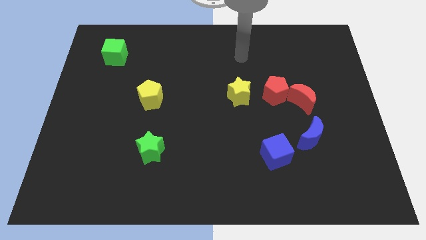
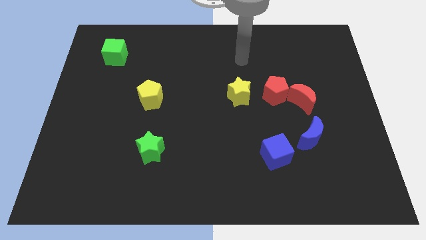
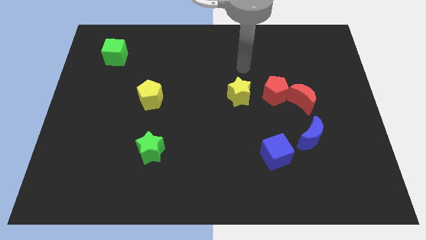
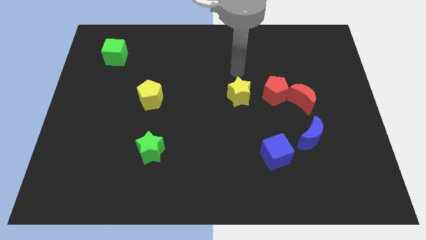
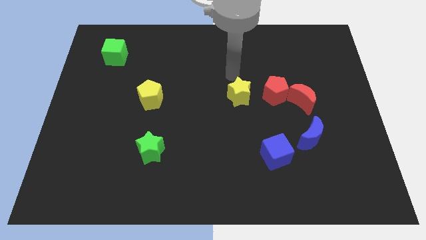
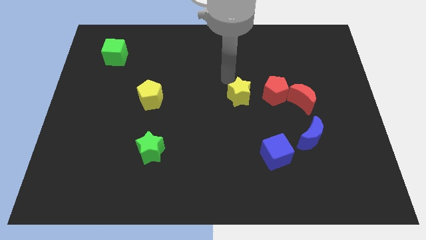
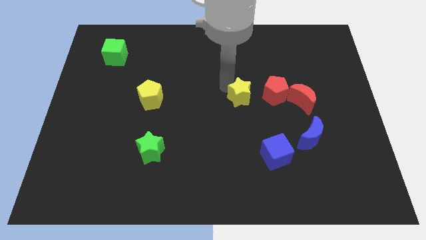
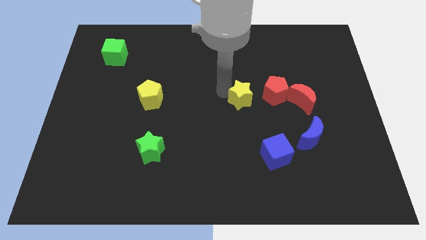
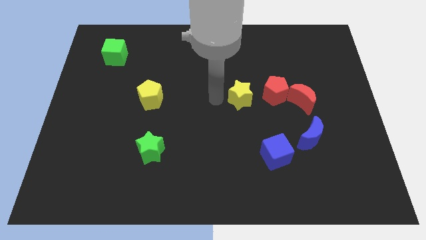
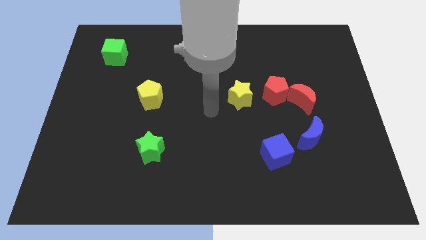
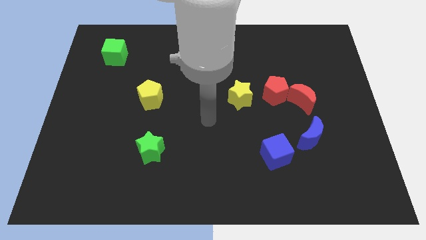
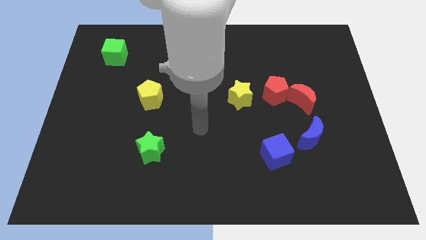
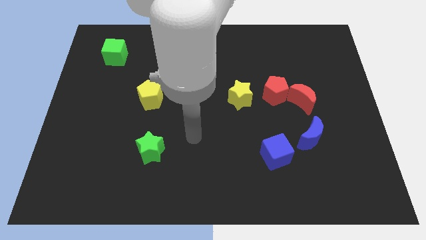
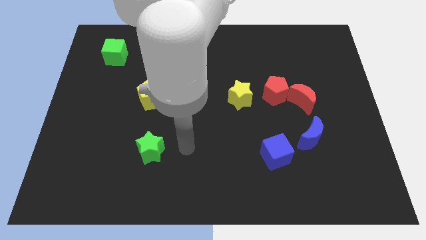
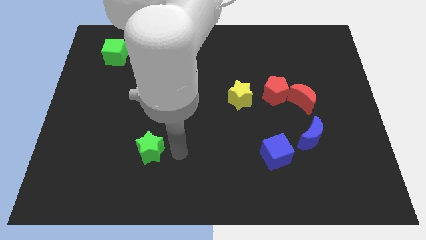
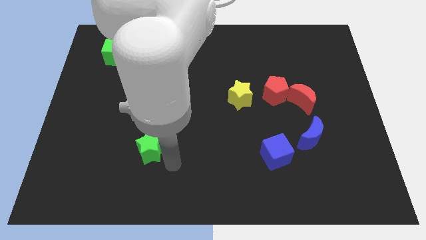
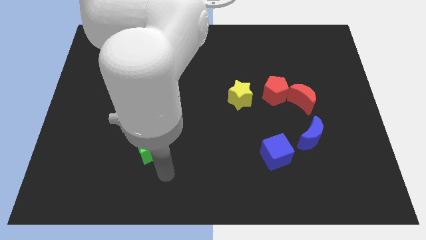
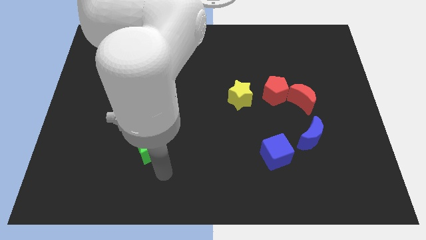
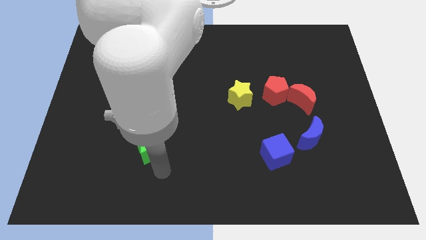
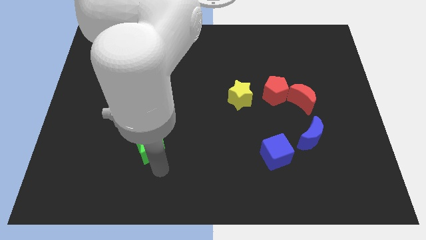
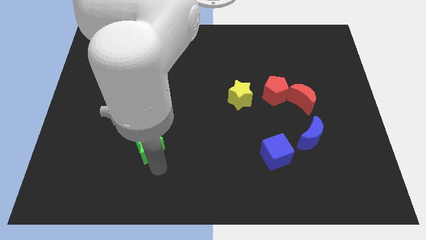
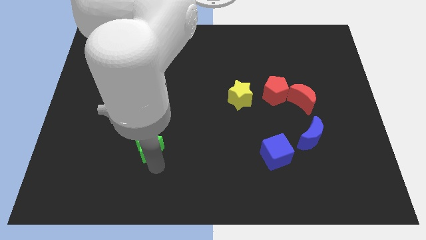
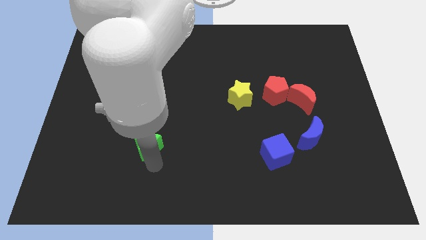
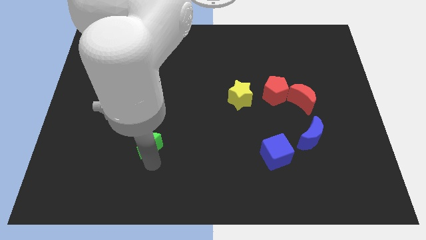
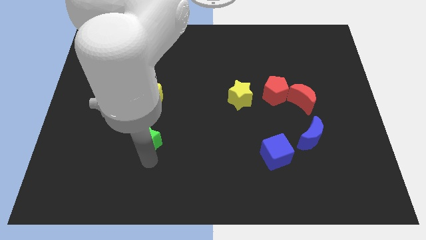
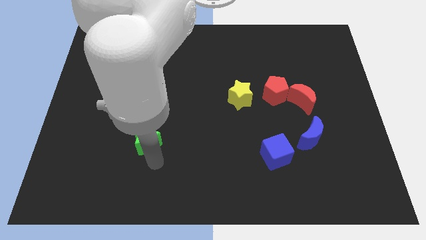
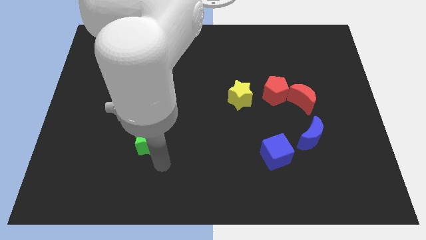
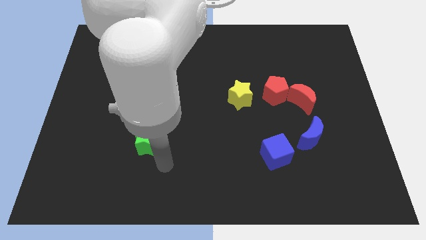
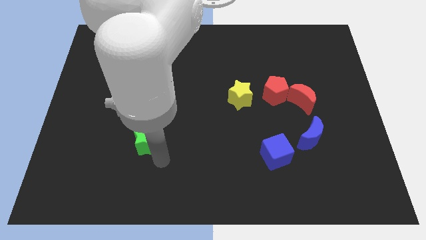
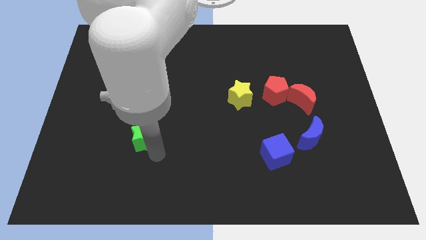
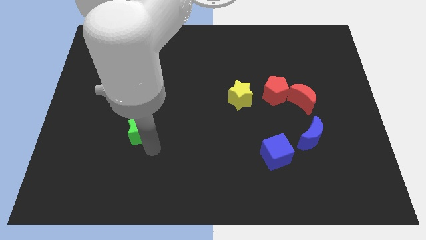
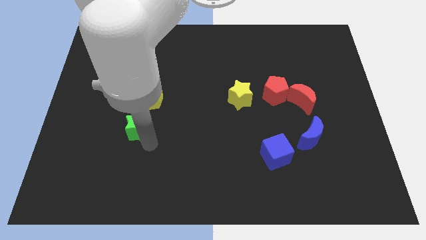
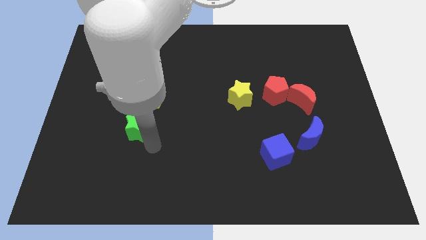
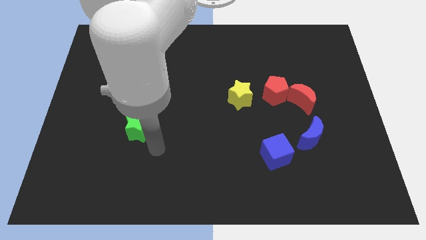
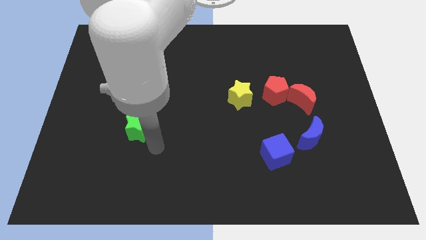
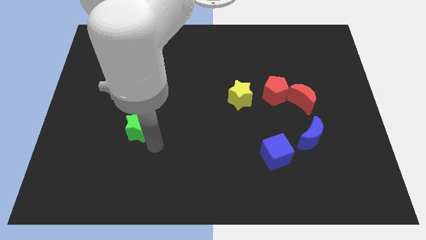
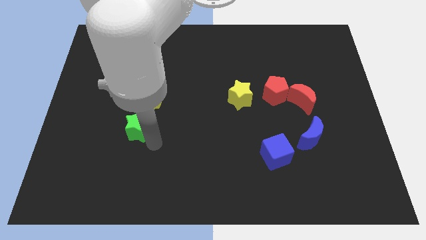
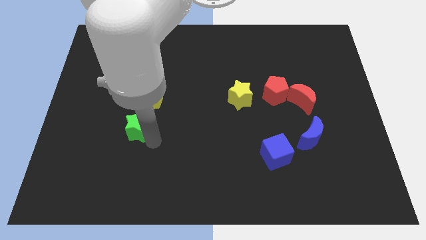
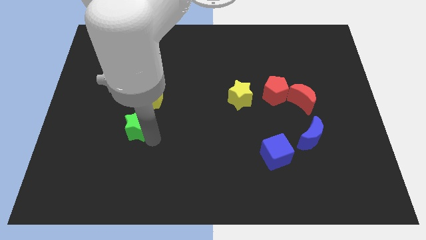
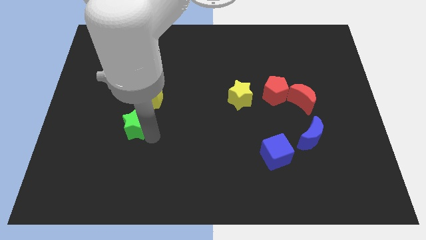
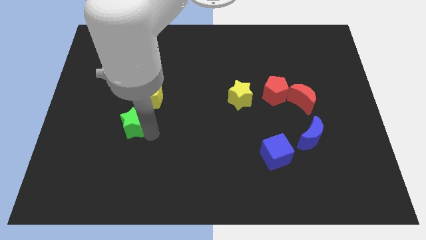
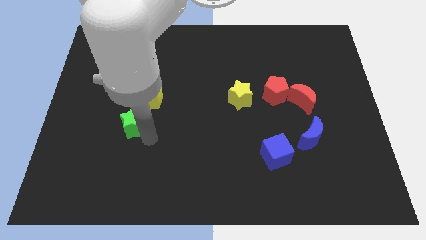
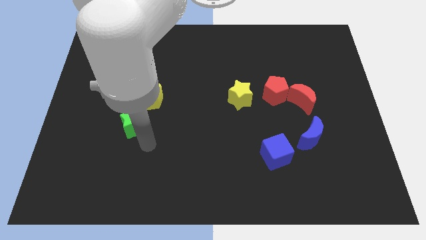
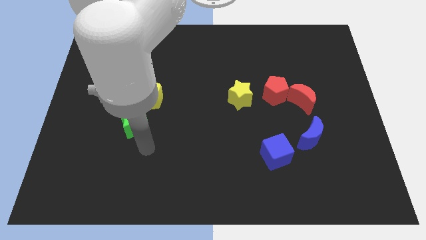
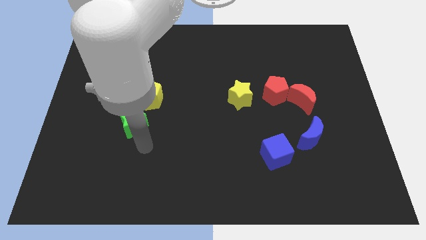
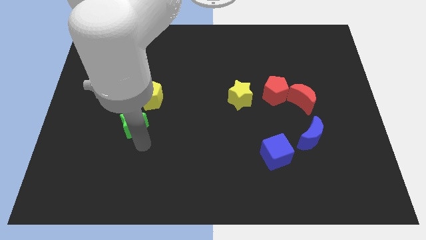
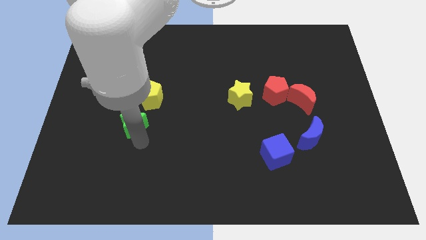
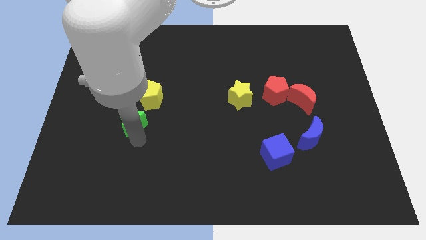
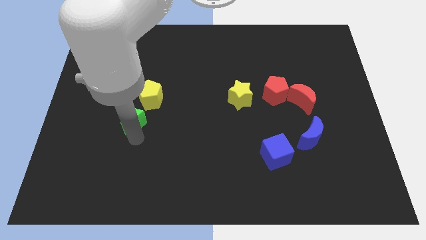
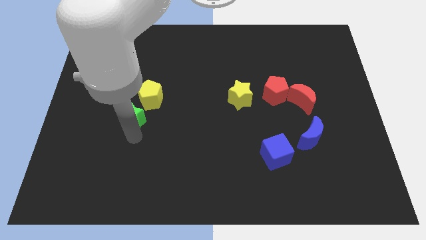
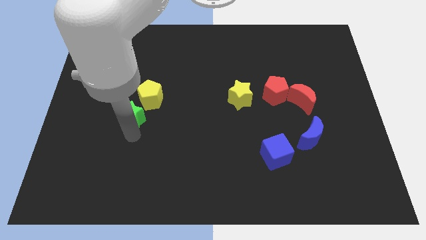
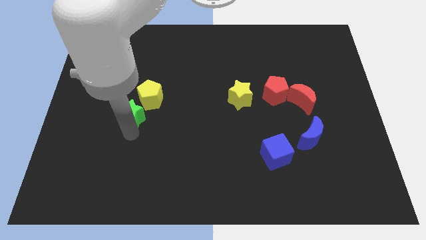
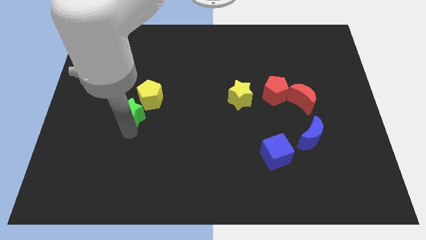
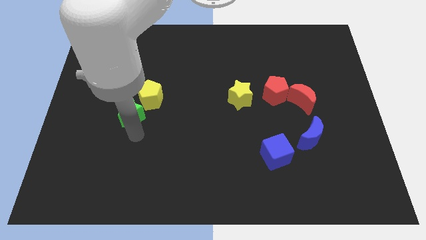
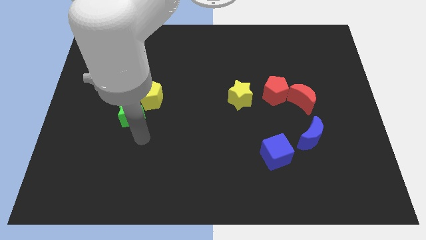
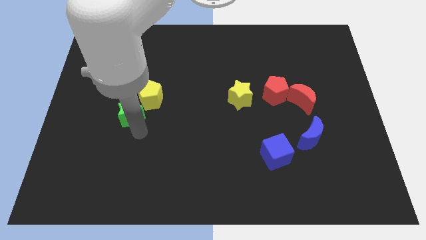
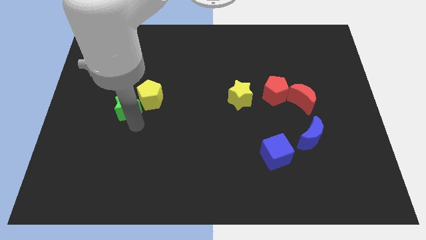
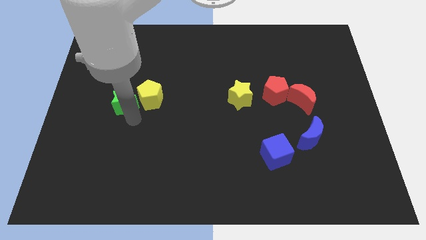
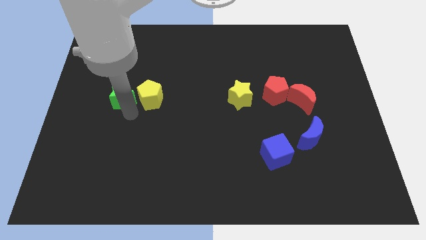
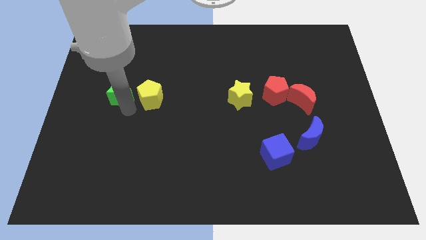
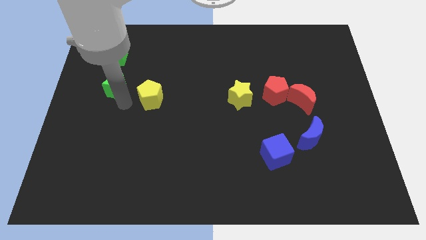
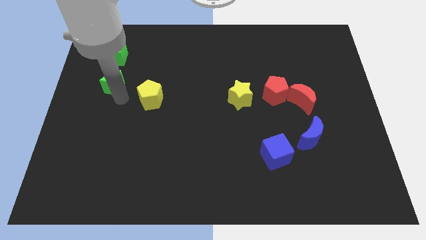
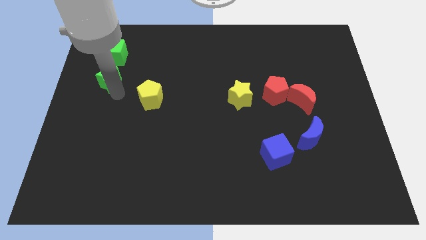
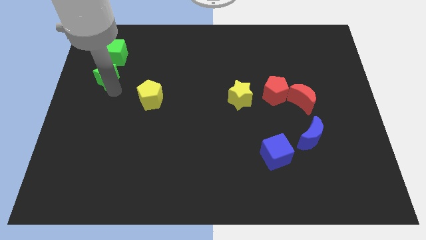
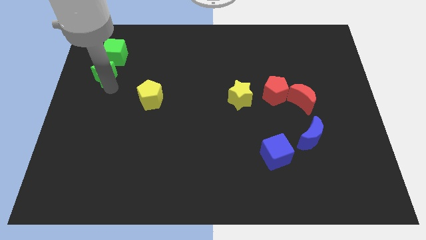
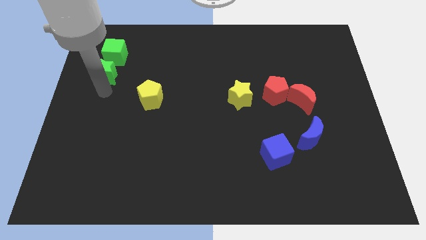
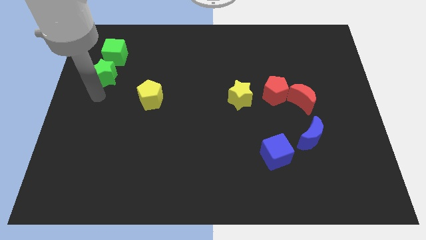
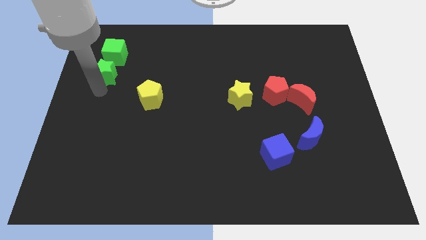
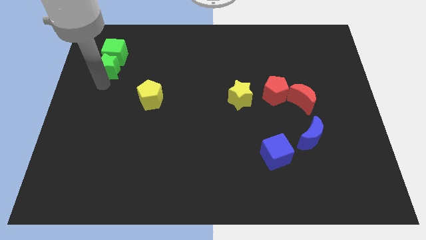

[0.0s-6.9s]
put the green star next to the green cube

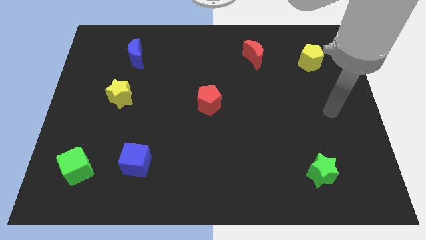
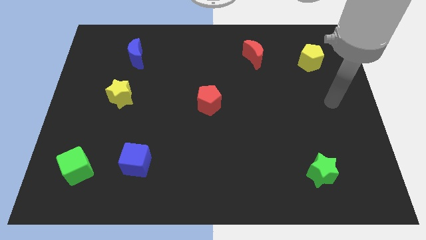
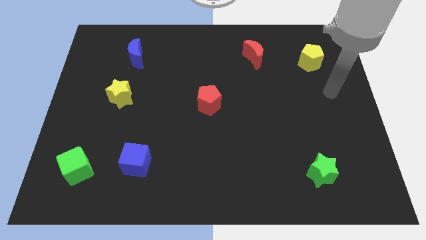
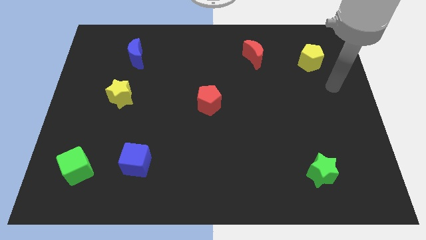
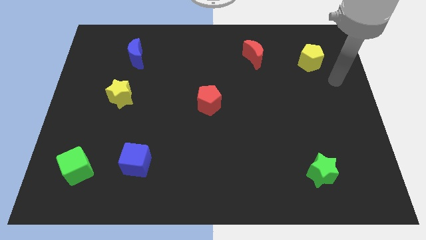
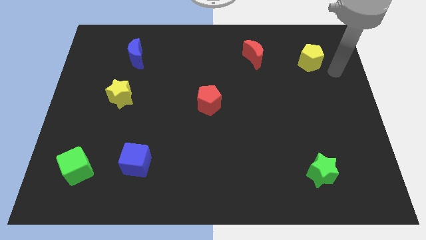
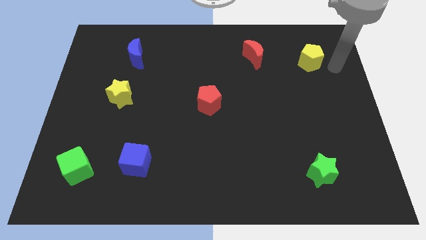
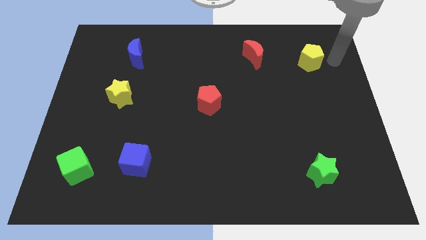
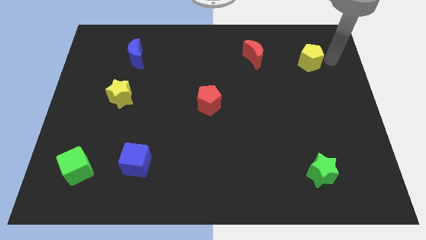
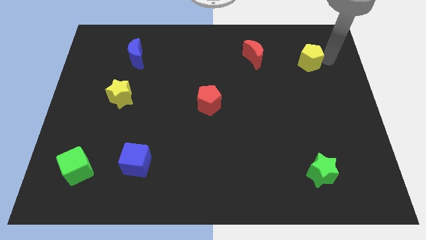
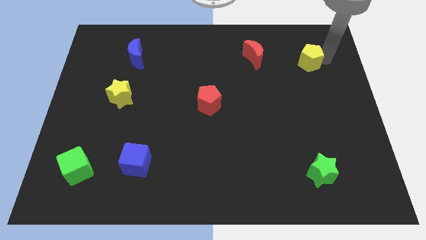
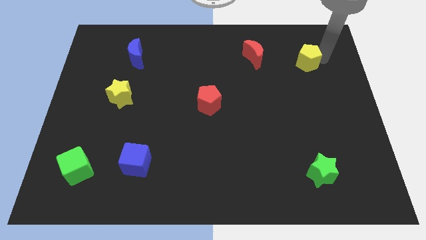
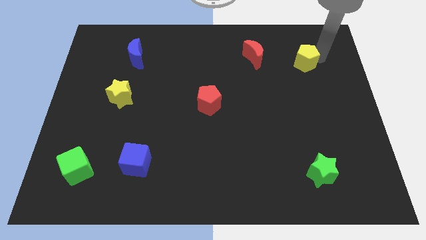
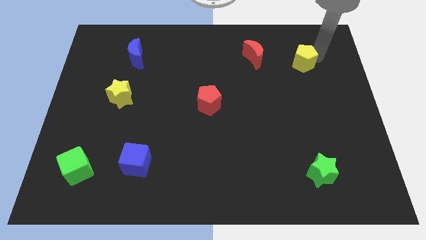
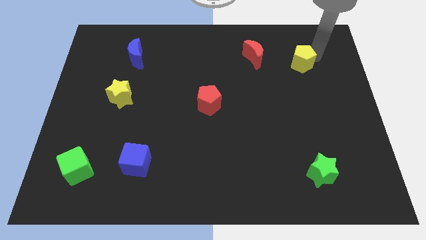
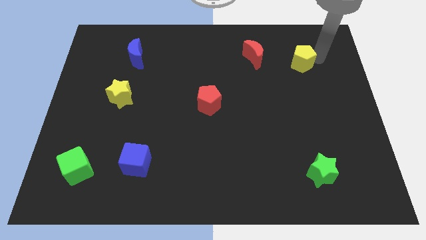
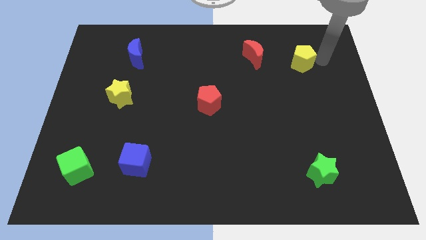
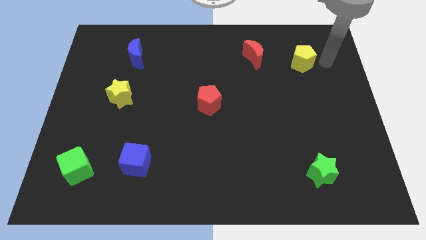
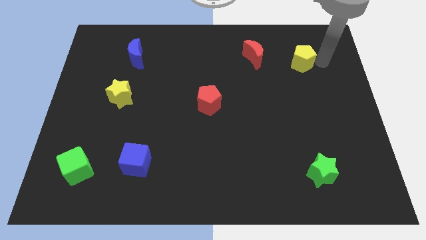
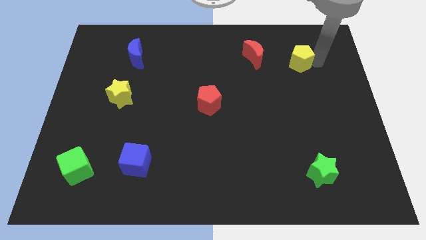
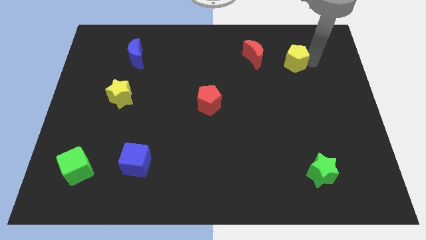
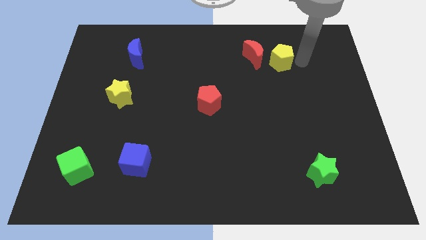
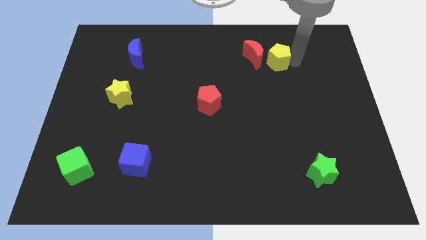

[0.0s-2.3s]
move the yellow pentagon close to the red moon
